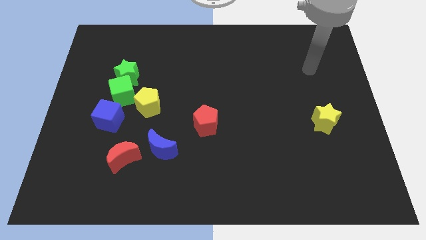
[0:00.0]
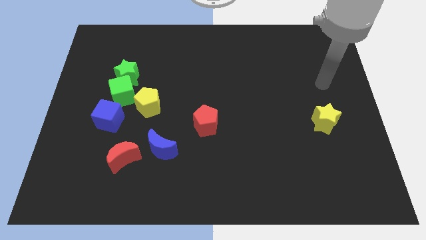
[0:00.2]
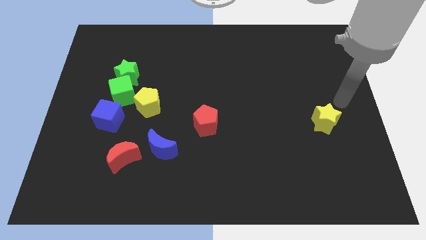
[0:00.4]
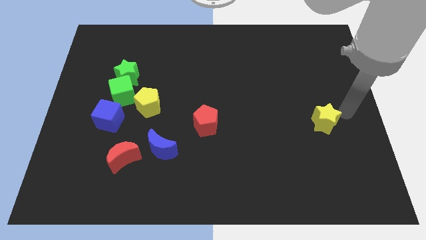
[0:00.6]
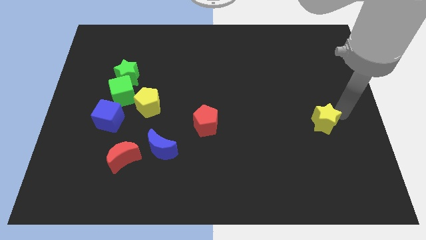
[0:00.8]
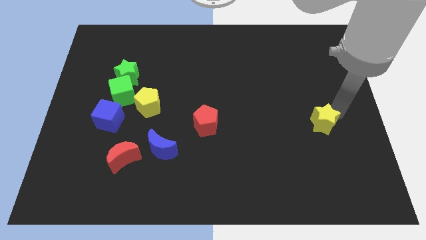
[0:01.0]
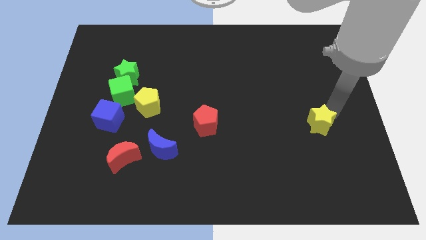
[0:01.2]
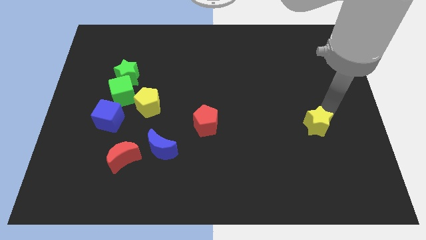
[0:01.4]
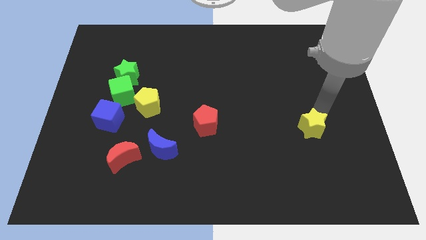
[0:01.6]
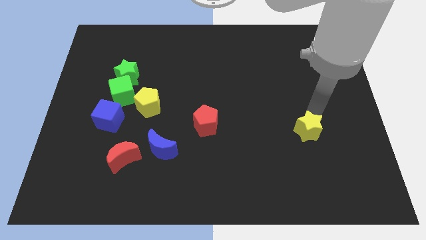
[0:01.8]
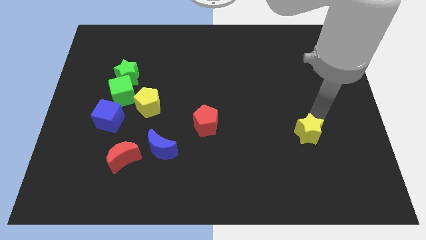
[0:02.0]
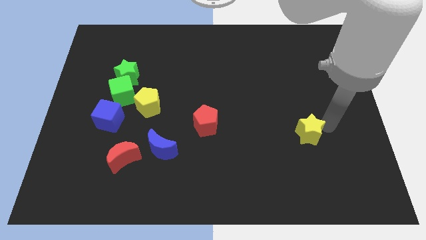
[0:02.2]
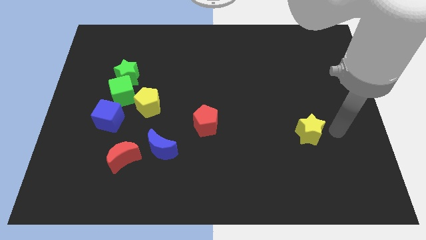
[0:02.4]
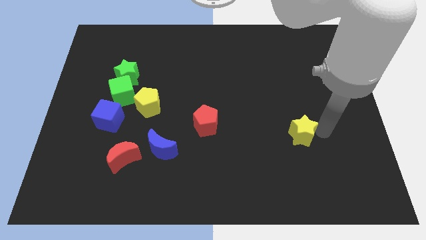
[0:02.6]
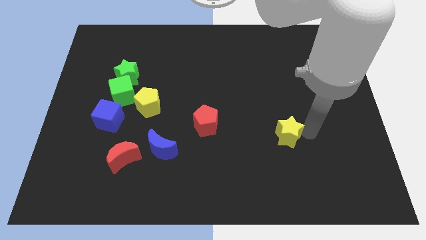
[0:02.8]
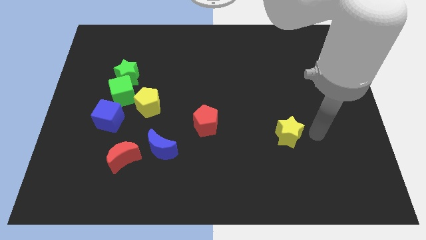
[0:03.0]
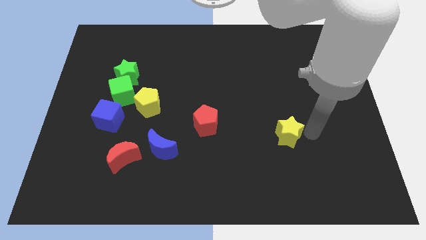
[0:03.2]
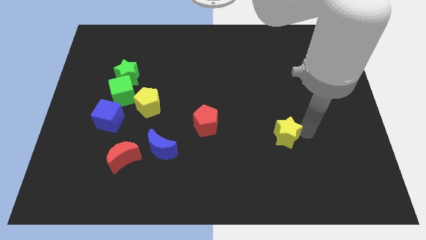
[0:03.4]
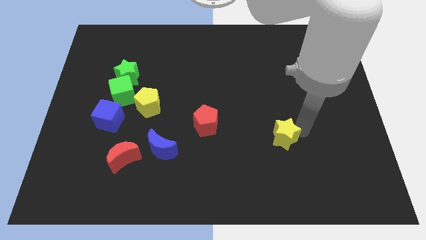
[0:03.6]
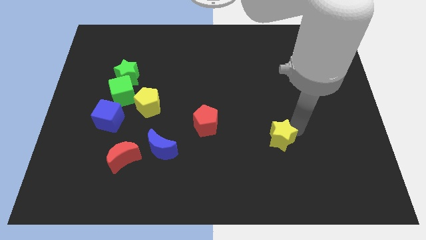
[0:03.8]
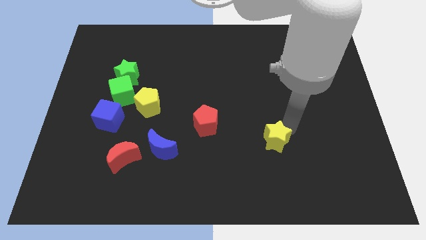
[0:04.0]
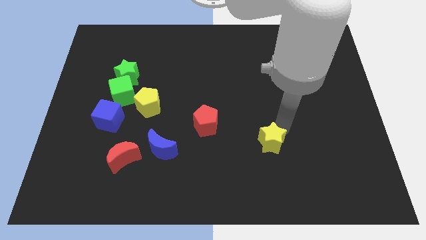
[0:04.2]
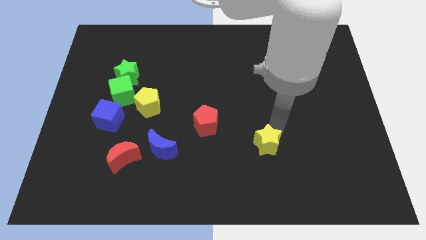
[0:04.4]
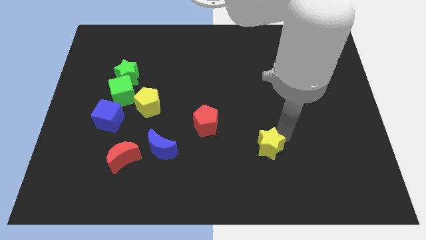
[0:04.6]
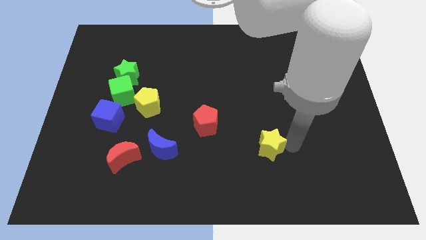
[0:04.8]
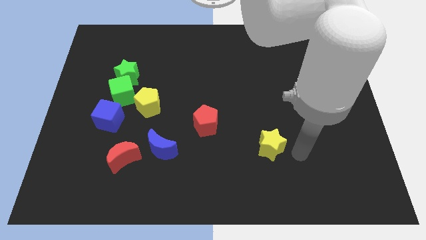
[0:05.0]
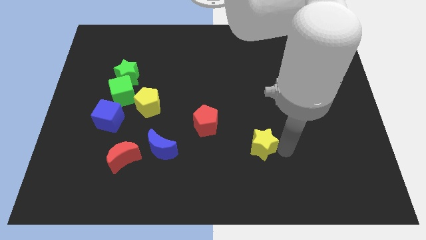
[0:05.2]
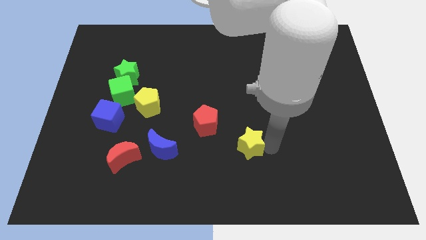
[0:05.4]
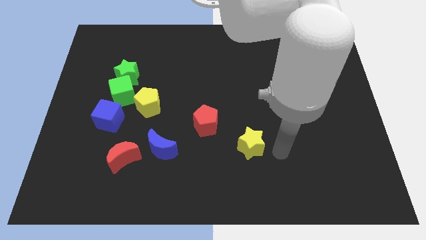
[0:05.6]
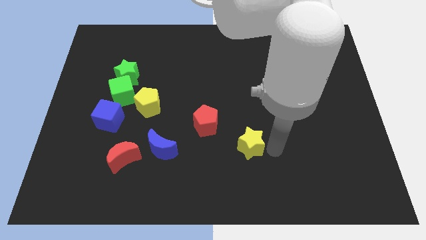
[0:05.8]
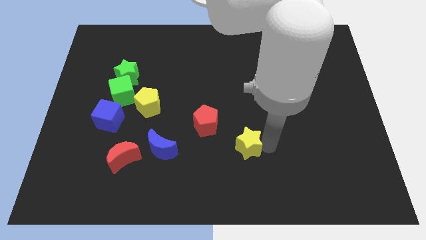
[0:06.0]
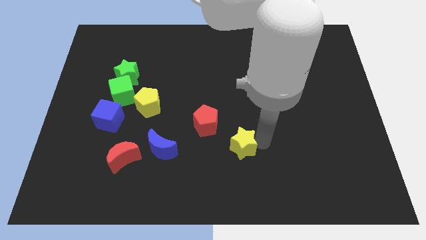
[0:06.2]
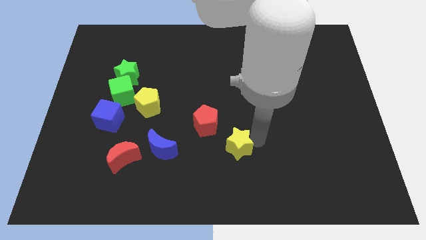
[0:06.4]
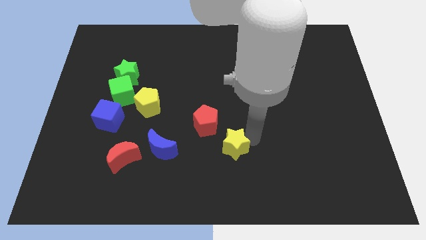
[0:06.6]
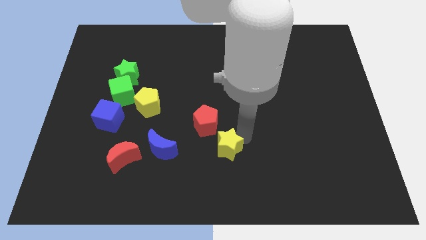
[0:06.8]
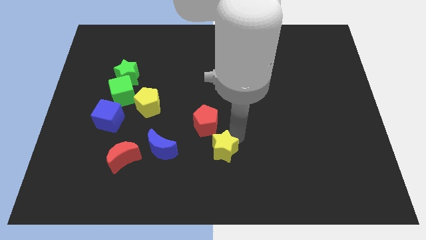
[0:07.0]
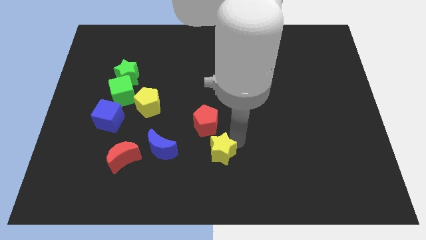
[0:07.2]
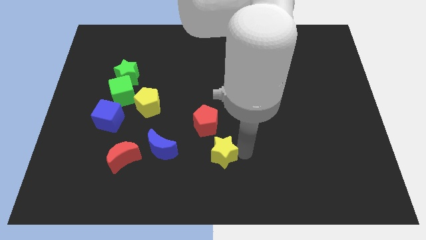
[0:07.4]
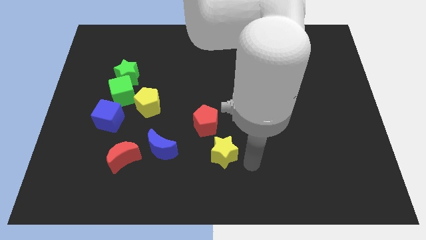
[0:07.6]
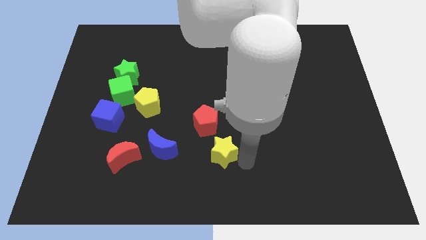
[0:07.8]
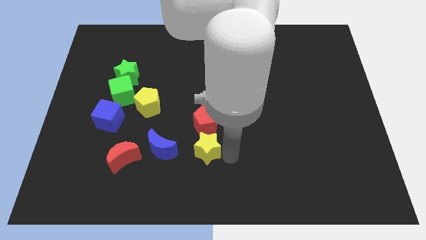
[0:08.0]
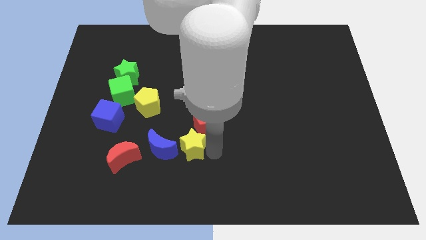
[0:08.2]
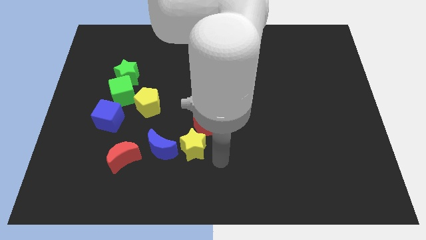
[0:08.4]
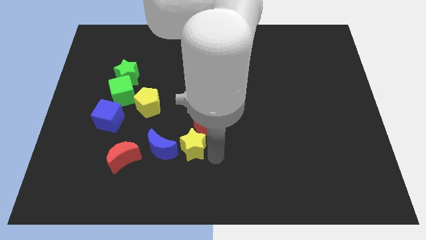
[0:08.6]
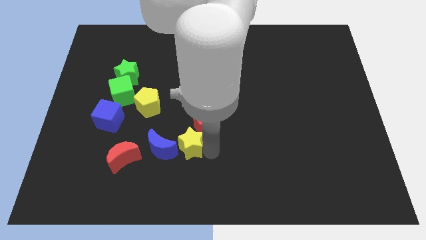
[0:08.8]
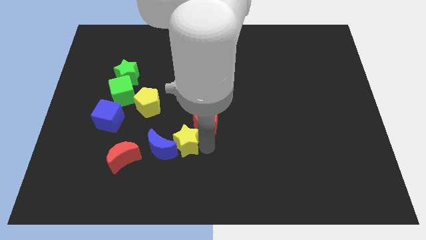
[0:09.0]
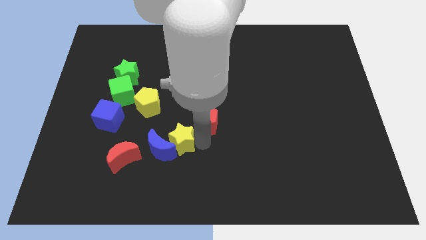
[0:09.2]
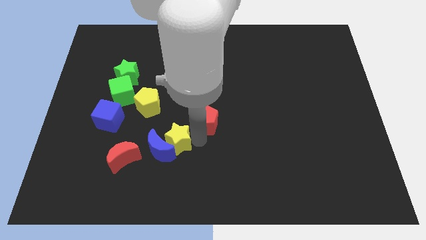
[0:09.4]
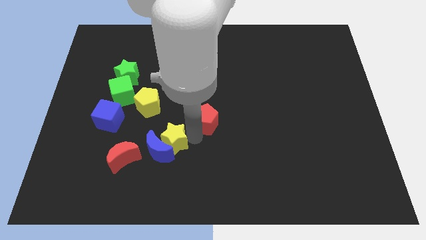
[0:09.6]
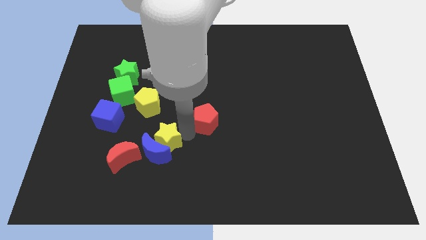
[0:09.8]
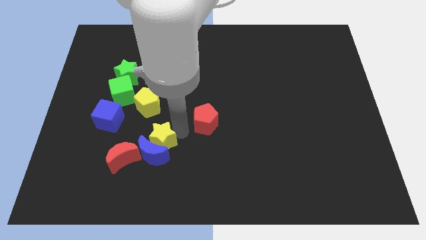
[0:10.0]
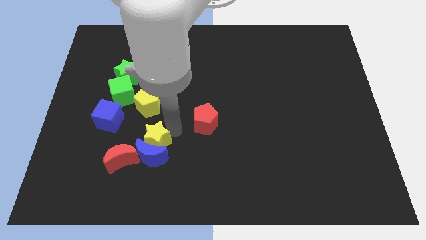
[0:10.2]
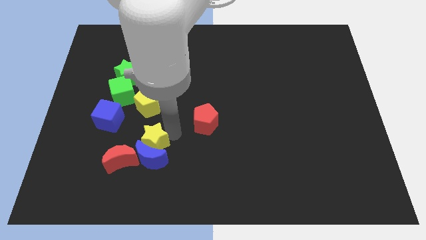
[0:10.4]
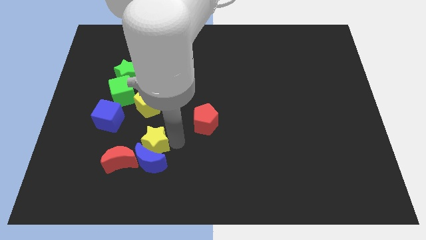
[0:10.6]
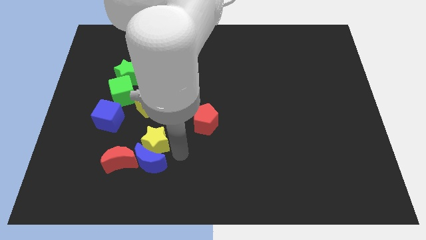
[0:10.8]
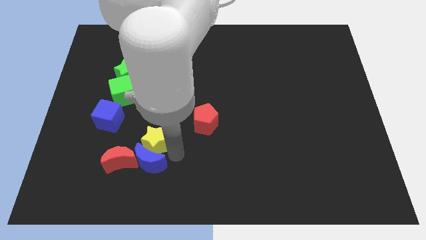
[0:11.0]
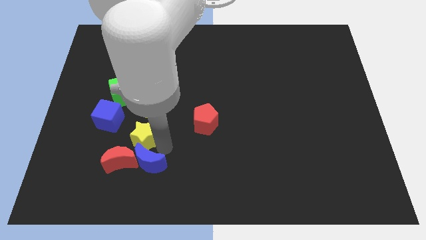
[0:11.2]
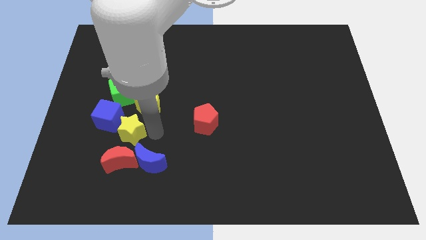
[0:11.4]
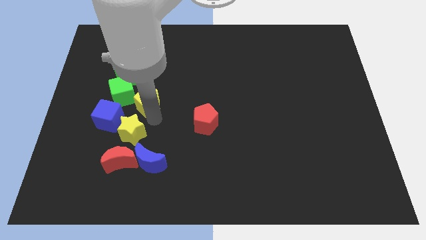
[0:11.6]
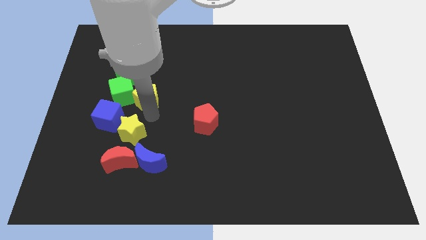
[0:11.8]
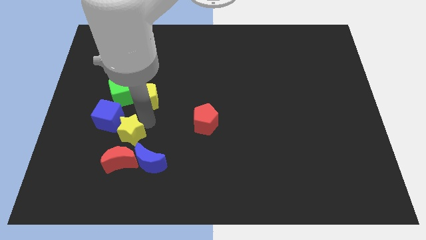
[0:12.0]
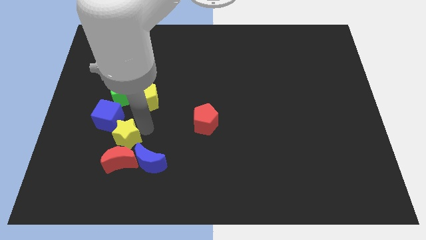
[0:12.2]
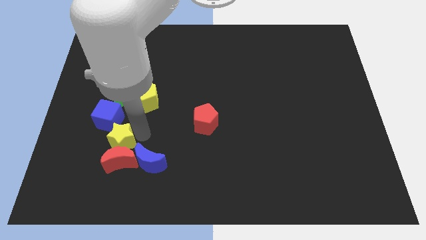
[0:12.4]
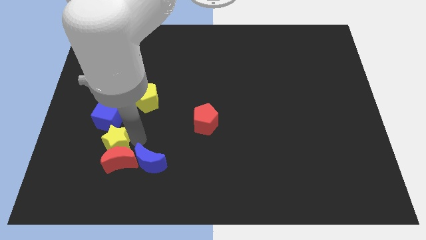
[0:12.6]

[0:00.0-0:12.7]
put the yellow star left of the blue moon

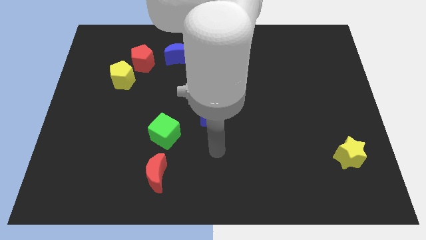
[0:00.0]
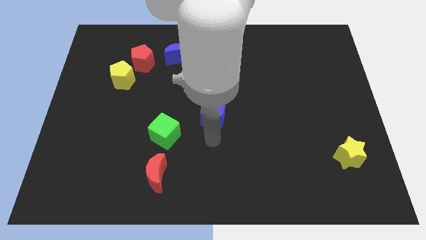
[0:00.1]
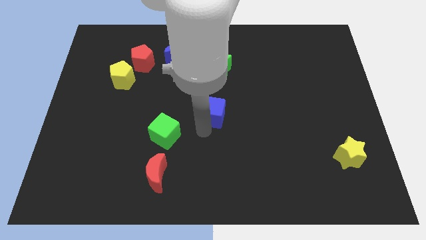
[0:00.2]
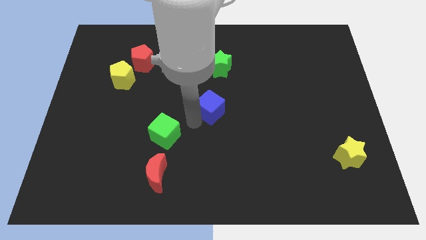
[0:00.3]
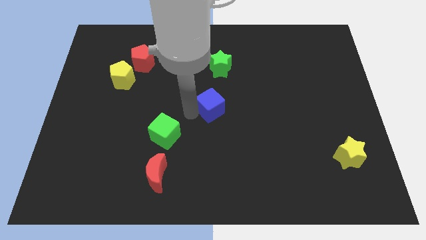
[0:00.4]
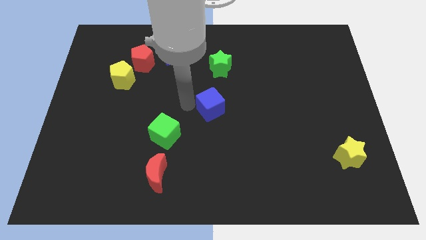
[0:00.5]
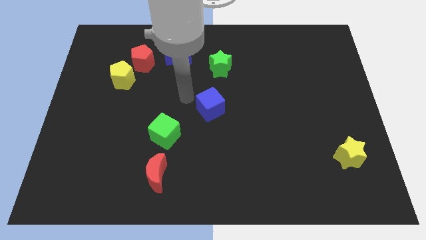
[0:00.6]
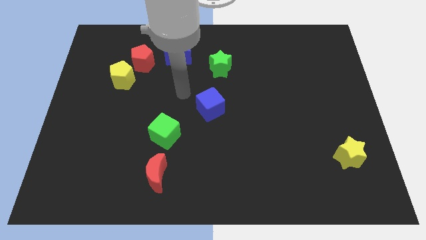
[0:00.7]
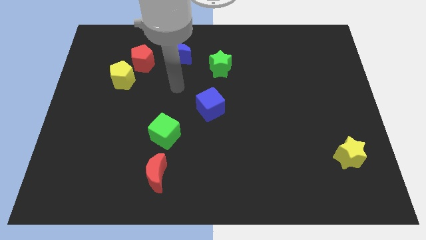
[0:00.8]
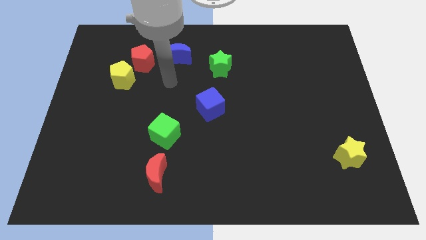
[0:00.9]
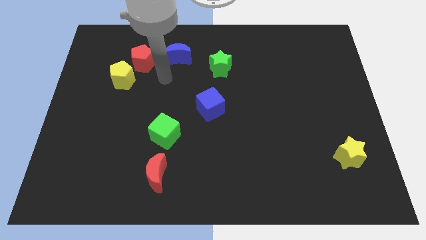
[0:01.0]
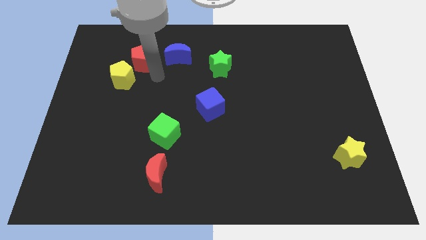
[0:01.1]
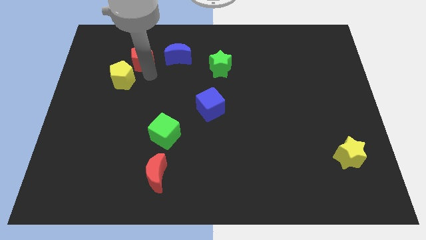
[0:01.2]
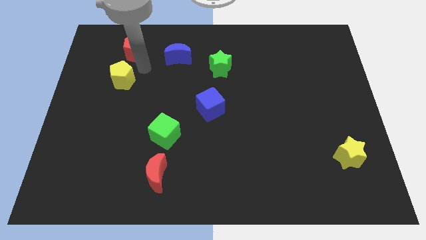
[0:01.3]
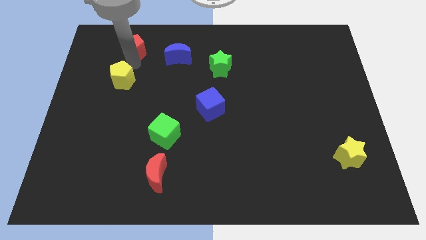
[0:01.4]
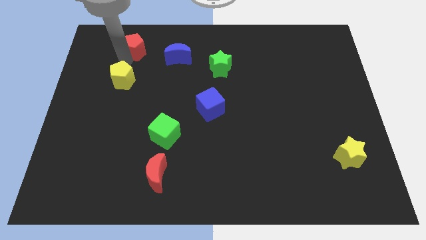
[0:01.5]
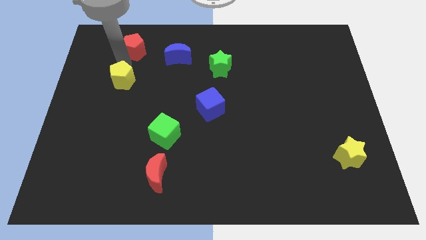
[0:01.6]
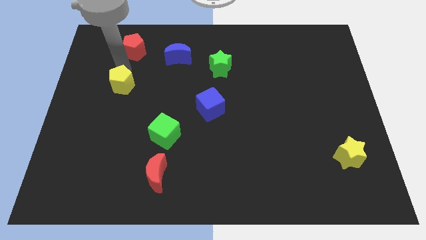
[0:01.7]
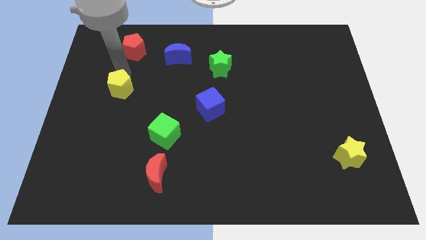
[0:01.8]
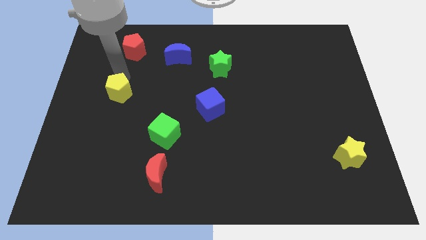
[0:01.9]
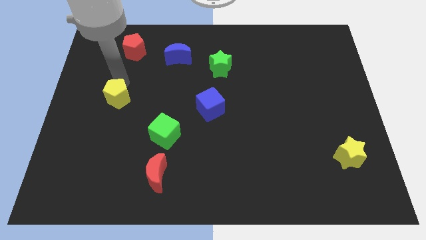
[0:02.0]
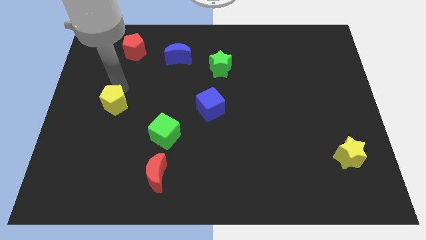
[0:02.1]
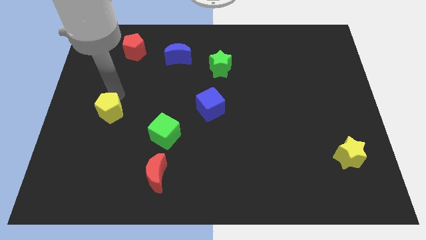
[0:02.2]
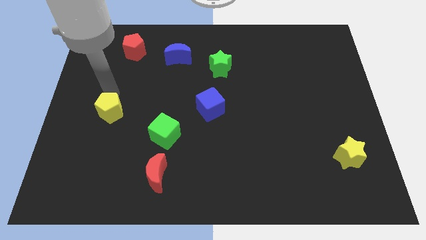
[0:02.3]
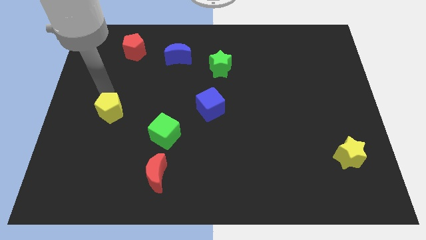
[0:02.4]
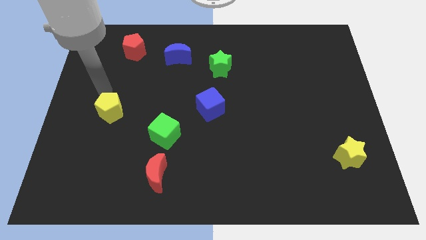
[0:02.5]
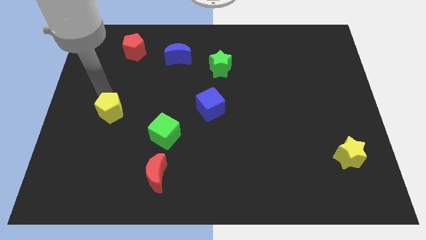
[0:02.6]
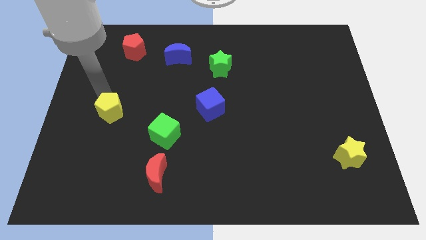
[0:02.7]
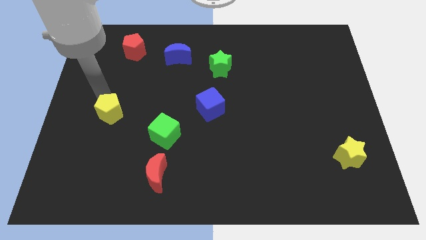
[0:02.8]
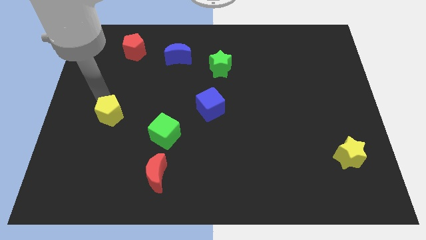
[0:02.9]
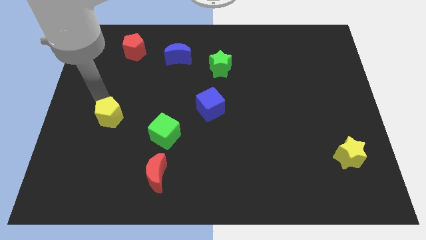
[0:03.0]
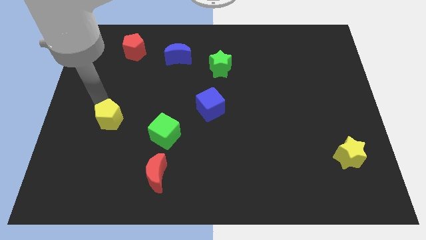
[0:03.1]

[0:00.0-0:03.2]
move the yellow pentagon to the left of the green cube
